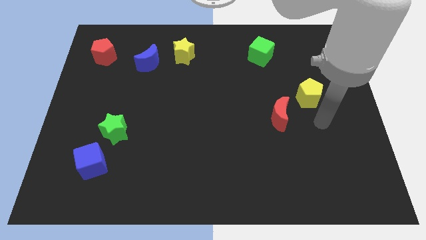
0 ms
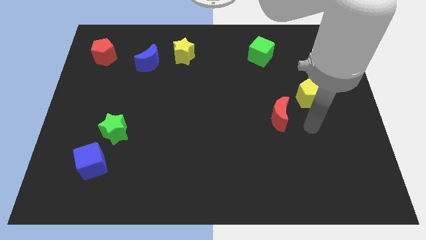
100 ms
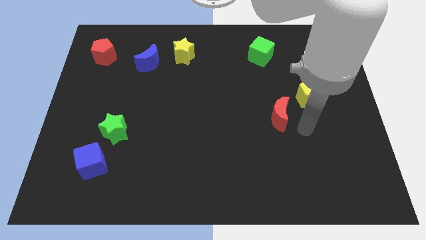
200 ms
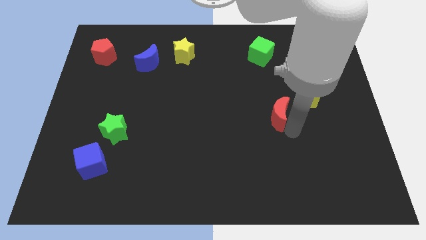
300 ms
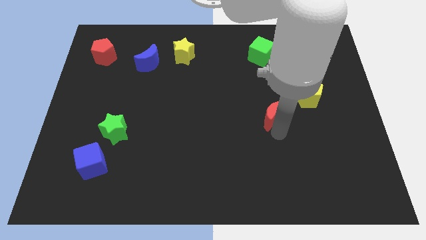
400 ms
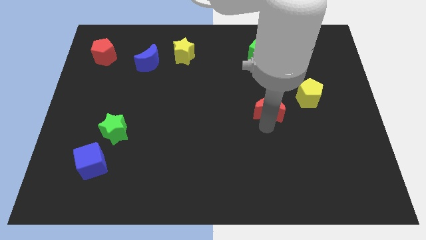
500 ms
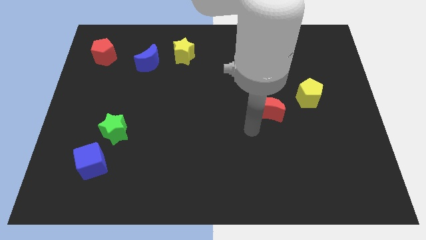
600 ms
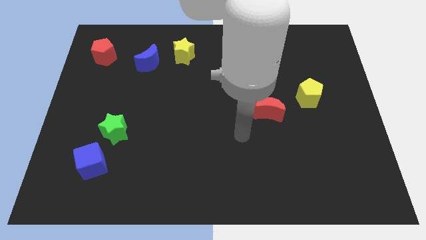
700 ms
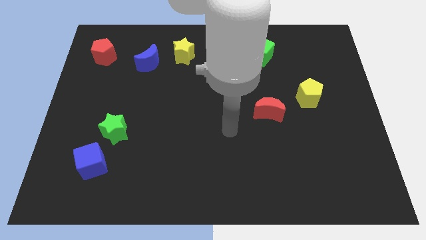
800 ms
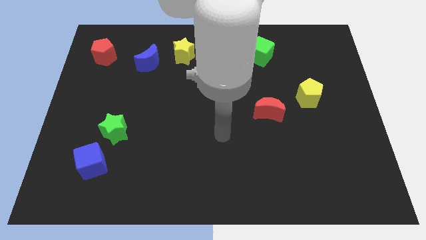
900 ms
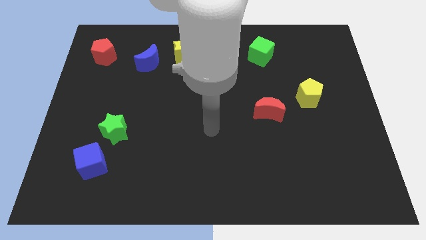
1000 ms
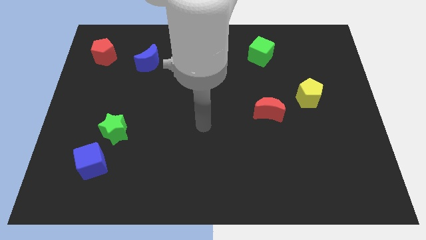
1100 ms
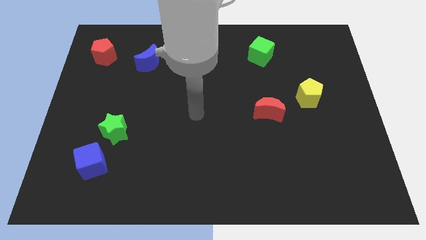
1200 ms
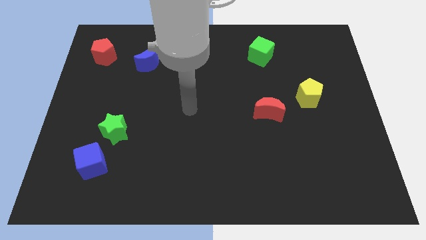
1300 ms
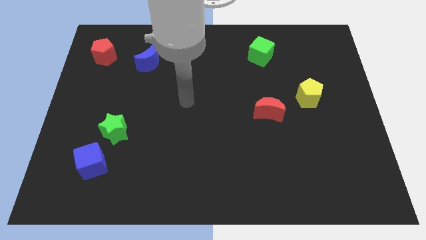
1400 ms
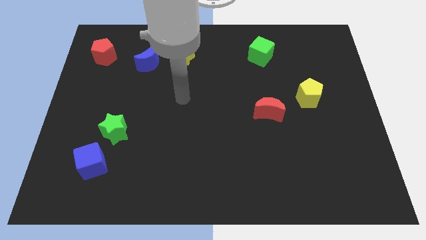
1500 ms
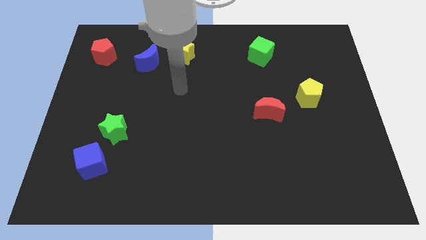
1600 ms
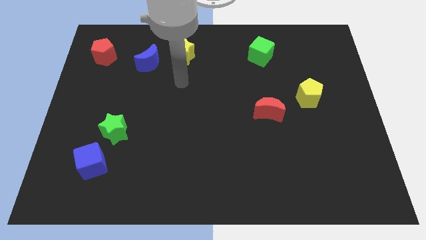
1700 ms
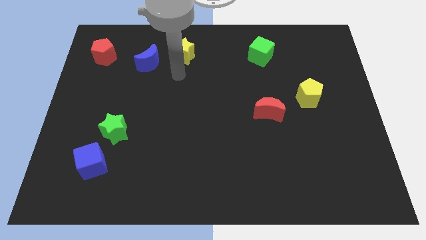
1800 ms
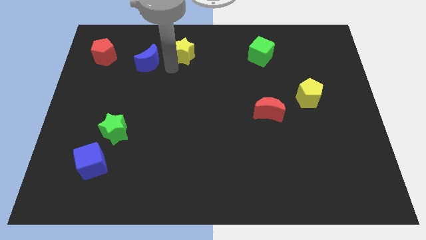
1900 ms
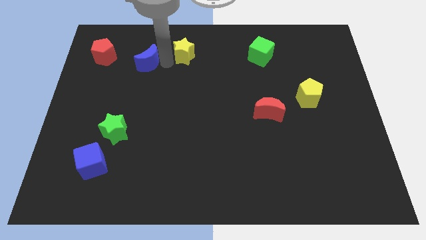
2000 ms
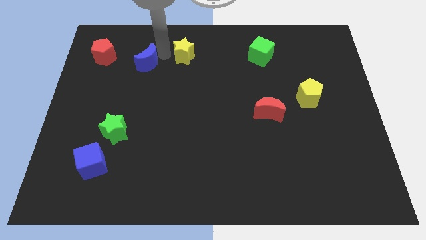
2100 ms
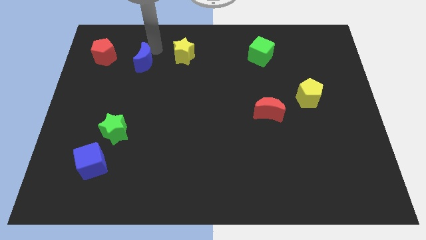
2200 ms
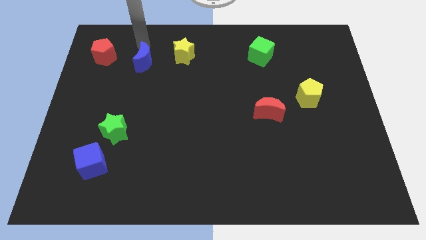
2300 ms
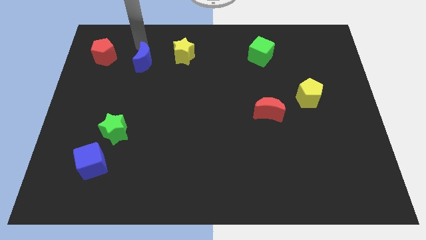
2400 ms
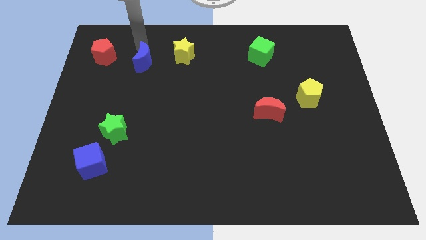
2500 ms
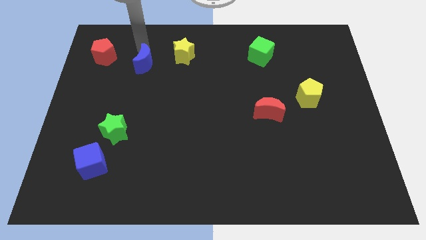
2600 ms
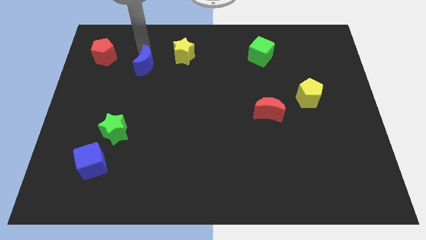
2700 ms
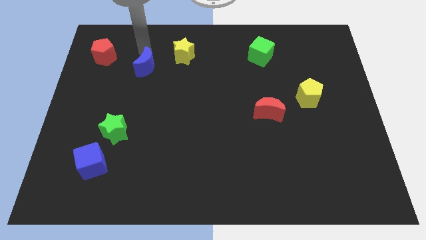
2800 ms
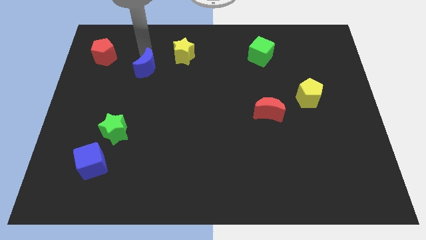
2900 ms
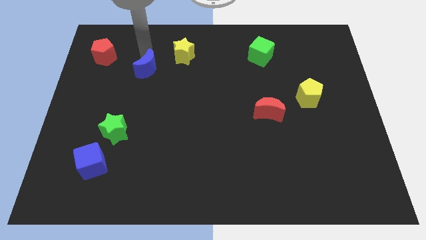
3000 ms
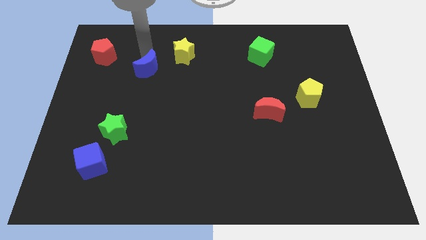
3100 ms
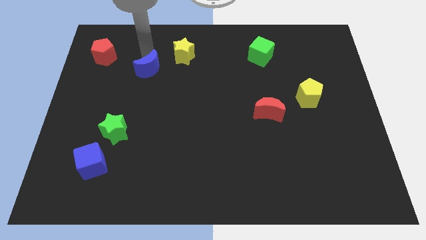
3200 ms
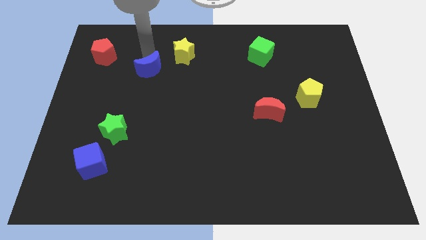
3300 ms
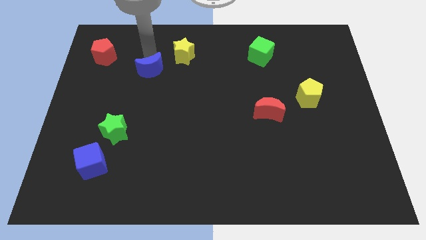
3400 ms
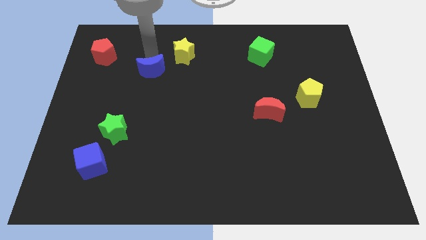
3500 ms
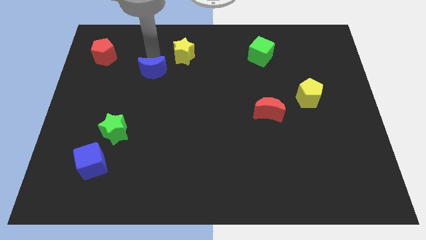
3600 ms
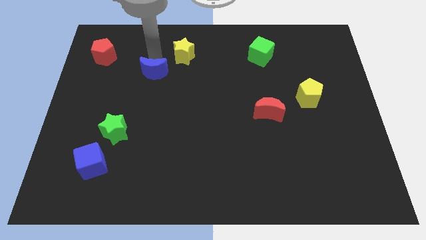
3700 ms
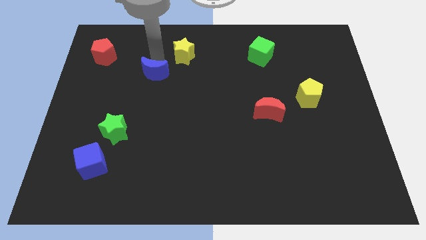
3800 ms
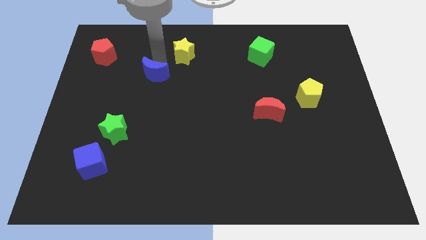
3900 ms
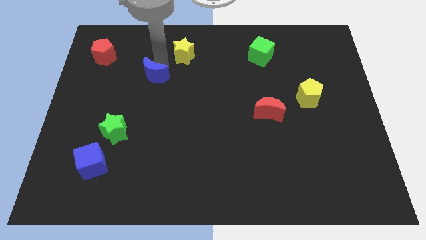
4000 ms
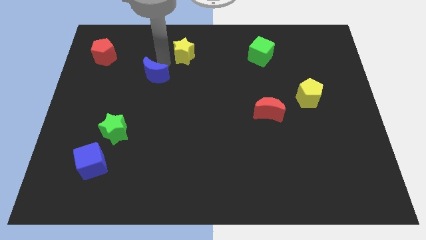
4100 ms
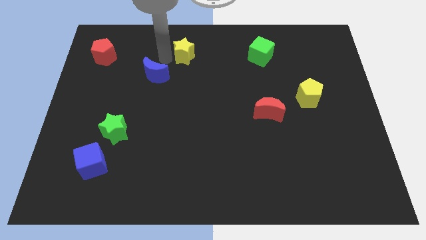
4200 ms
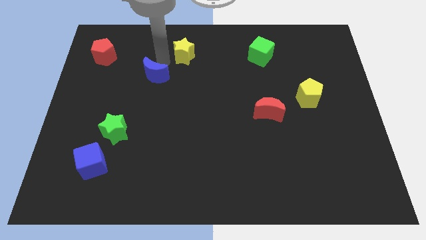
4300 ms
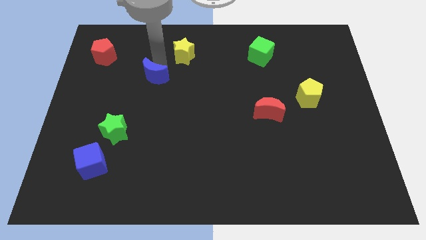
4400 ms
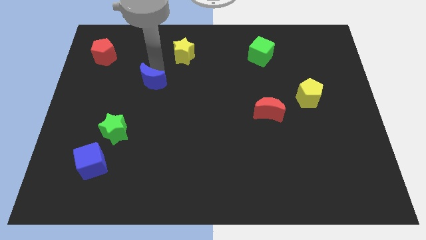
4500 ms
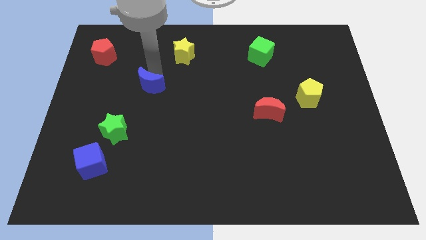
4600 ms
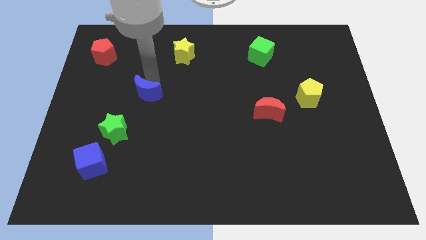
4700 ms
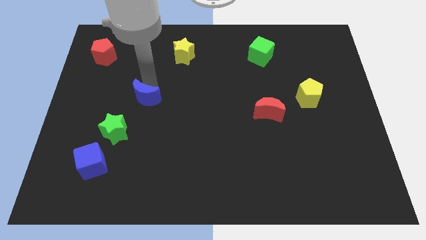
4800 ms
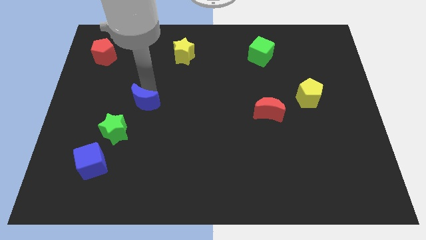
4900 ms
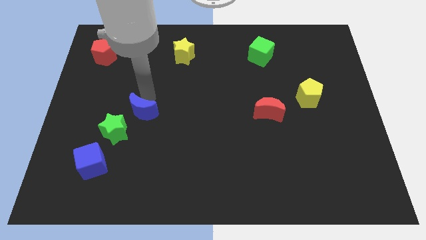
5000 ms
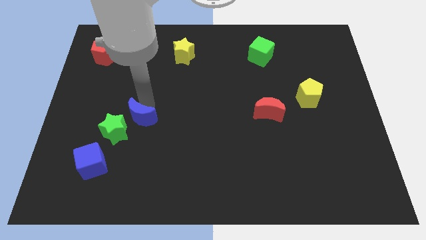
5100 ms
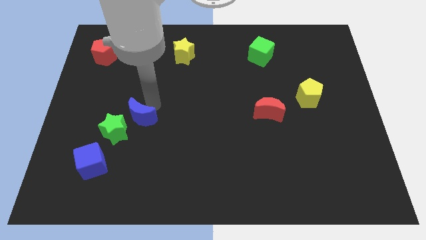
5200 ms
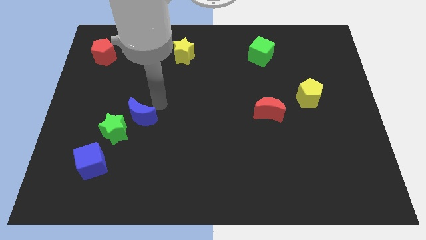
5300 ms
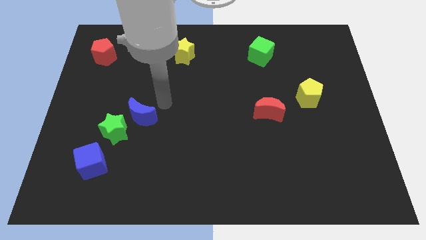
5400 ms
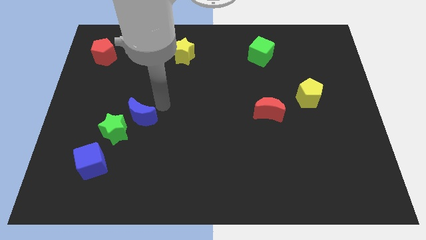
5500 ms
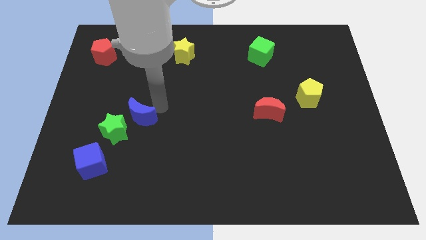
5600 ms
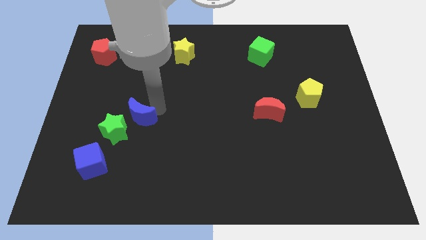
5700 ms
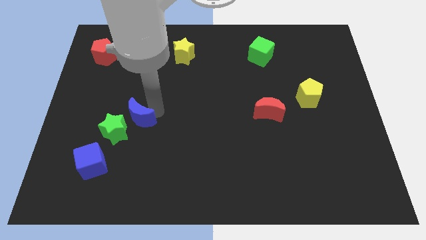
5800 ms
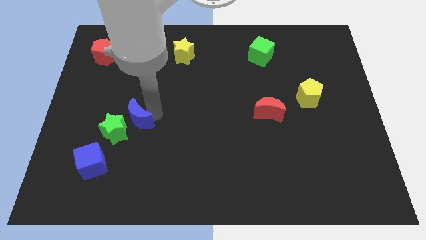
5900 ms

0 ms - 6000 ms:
put the blue moon towards the green star

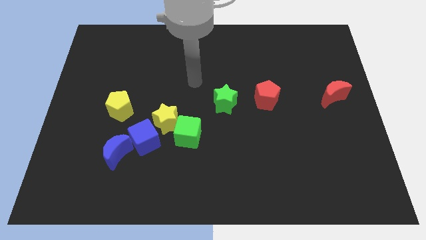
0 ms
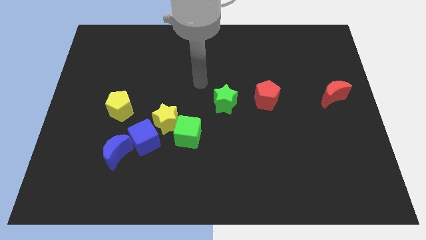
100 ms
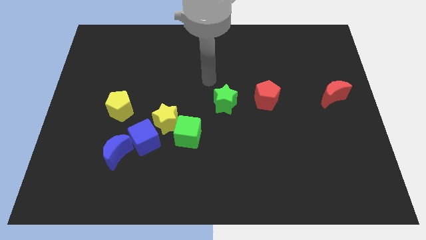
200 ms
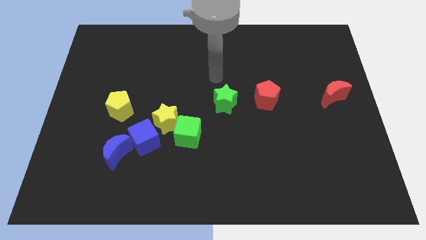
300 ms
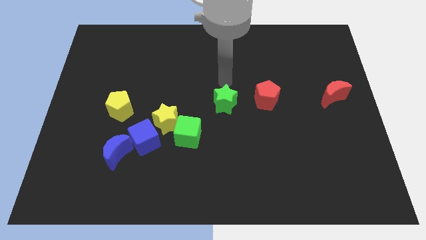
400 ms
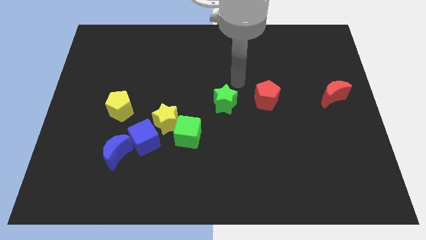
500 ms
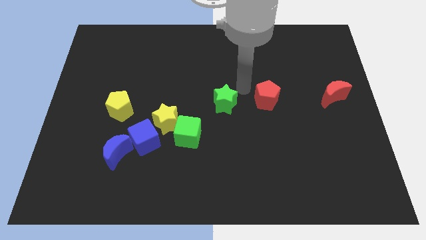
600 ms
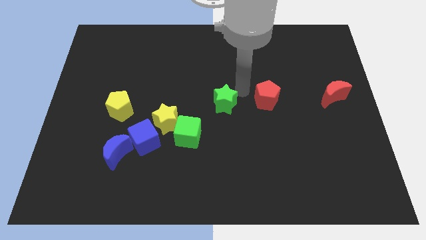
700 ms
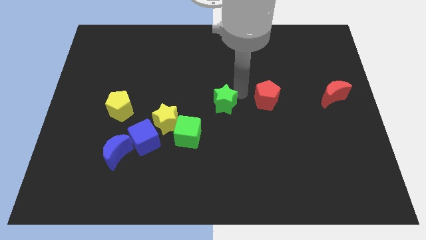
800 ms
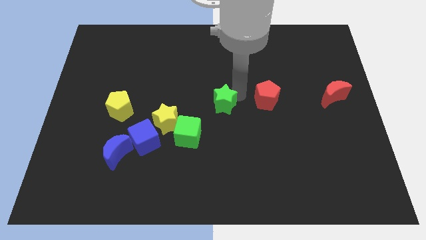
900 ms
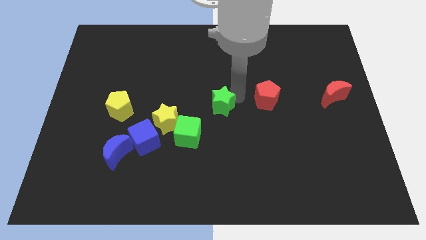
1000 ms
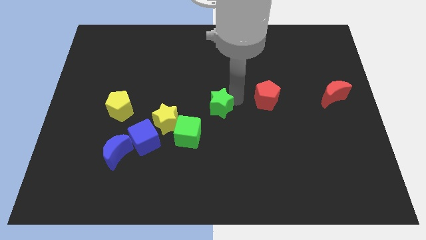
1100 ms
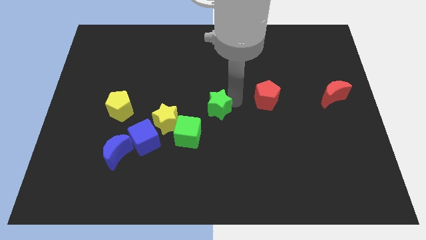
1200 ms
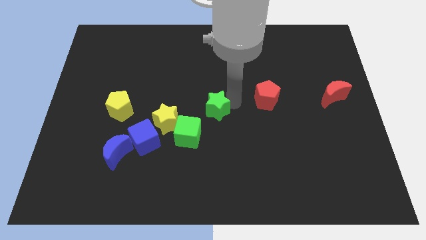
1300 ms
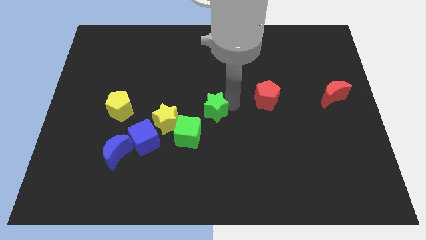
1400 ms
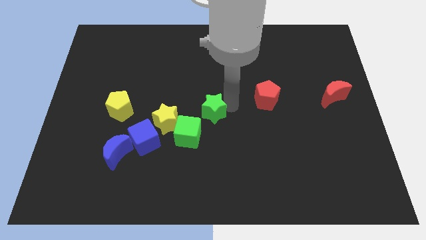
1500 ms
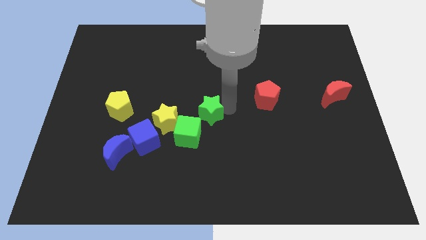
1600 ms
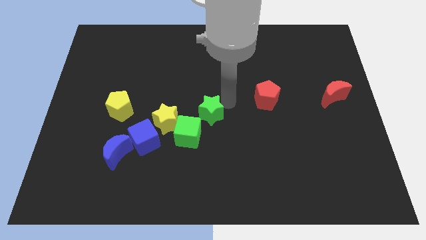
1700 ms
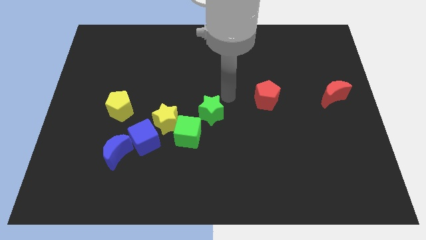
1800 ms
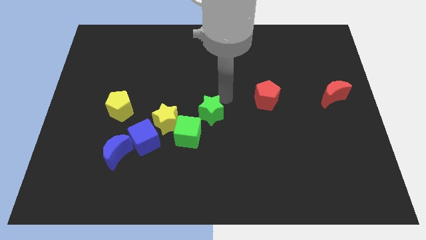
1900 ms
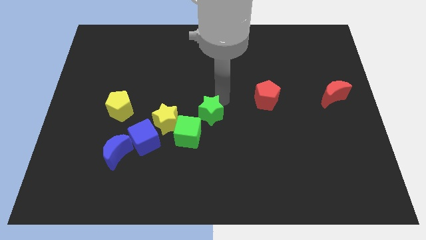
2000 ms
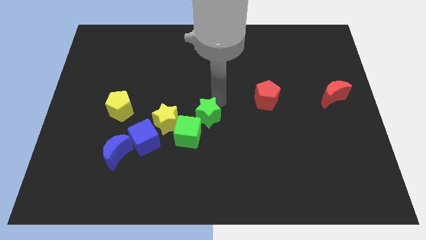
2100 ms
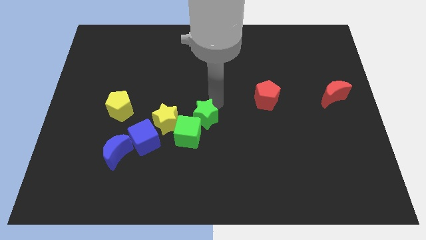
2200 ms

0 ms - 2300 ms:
push the green star to the green cube
